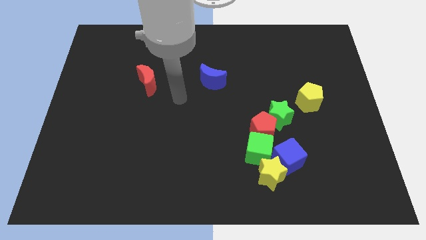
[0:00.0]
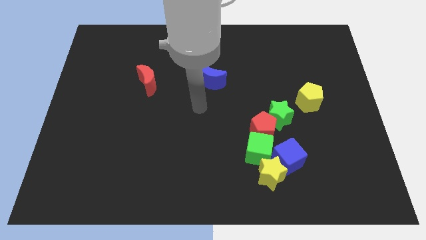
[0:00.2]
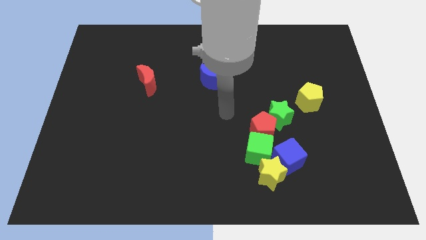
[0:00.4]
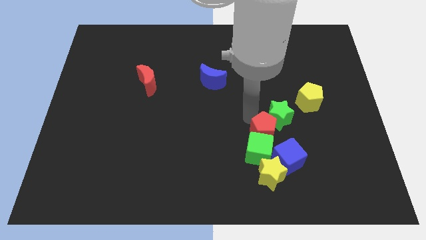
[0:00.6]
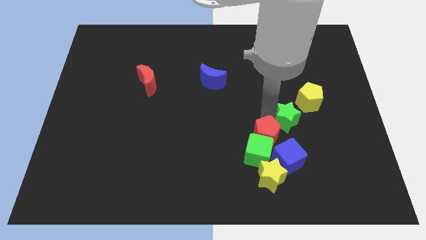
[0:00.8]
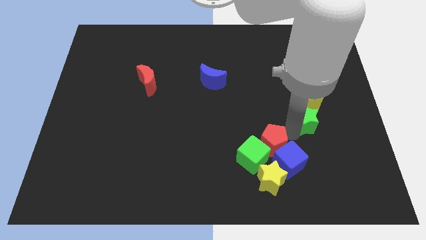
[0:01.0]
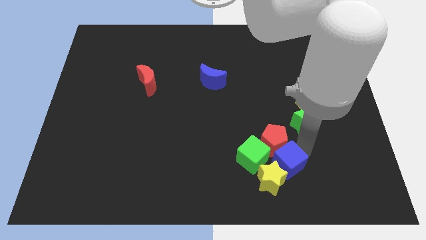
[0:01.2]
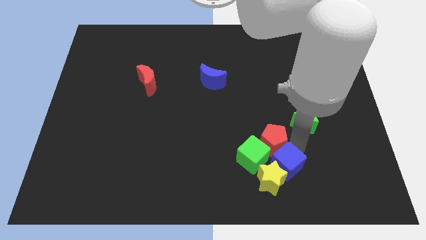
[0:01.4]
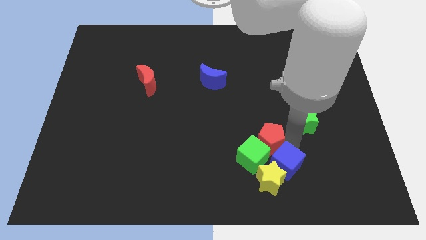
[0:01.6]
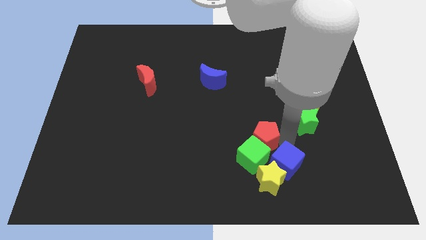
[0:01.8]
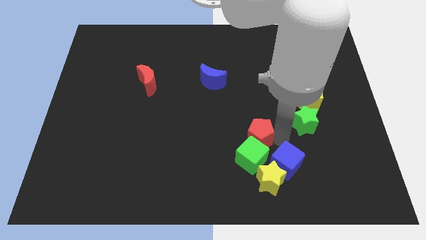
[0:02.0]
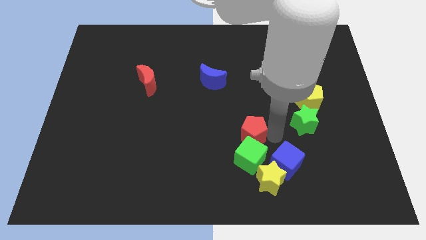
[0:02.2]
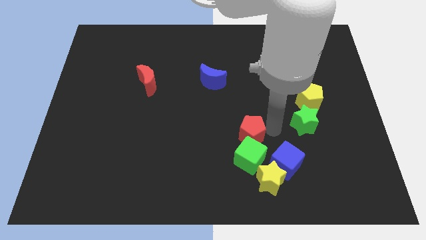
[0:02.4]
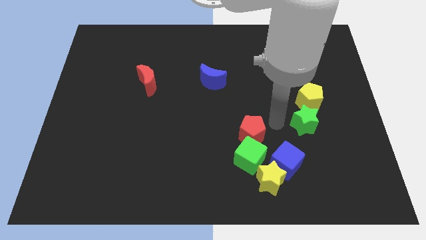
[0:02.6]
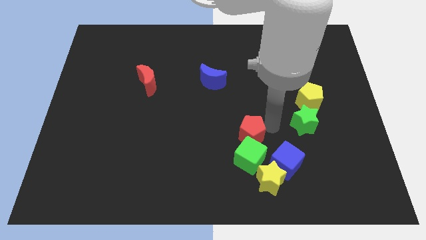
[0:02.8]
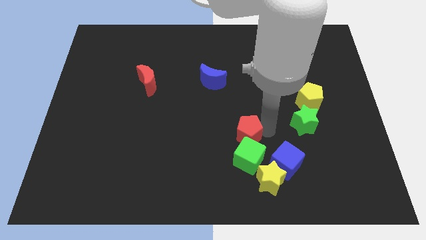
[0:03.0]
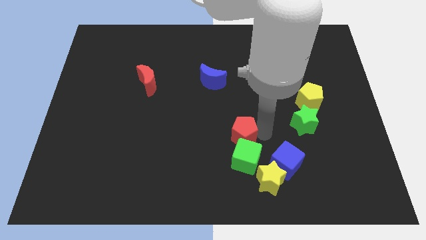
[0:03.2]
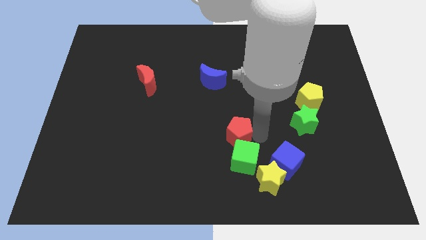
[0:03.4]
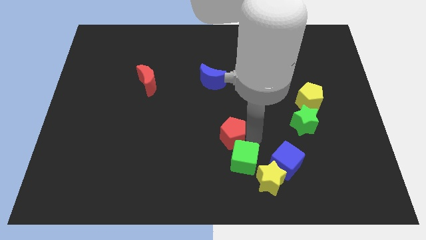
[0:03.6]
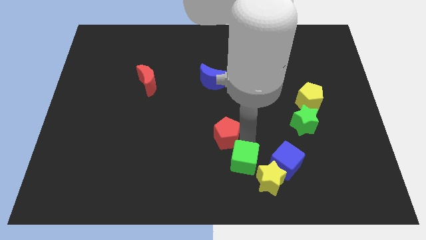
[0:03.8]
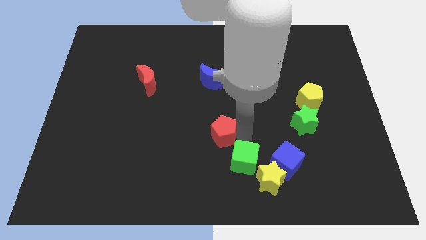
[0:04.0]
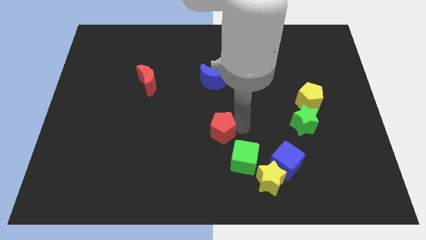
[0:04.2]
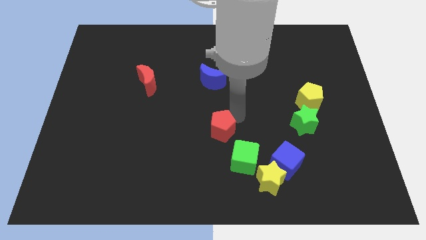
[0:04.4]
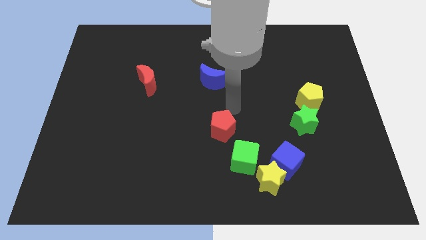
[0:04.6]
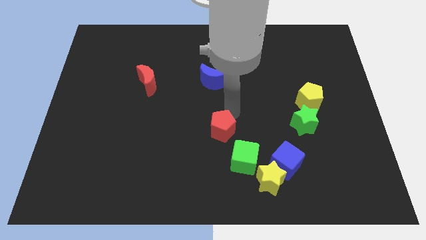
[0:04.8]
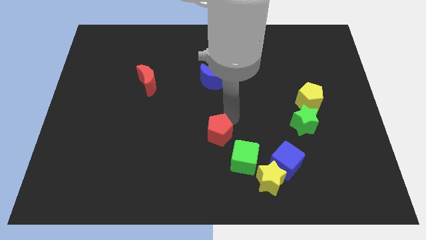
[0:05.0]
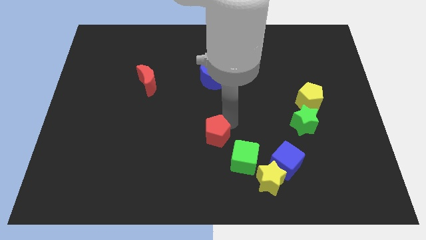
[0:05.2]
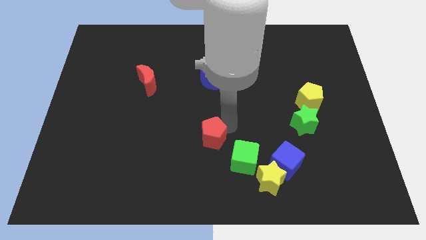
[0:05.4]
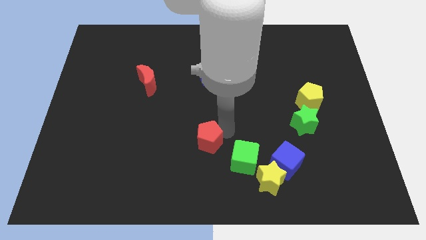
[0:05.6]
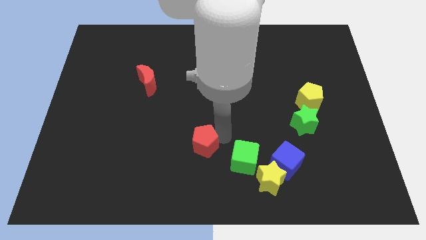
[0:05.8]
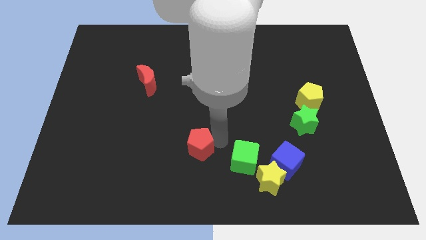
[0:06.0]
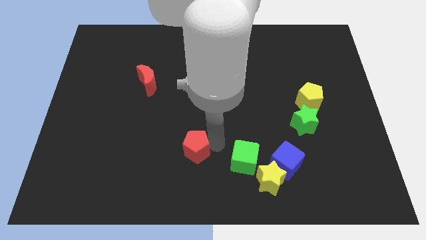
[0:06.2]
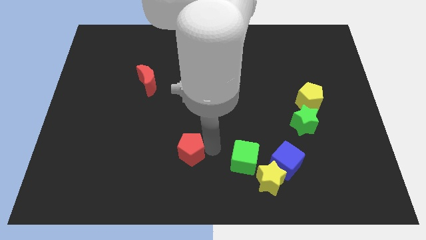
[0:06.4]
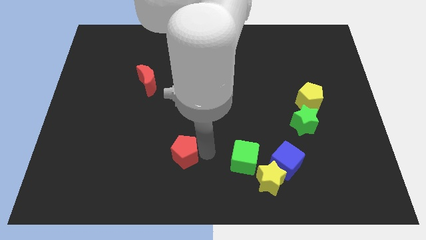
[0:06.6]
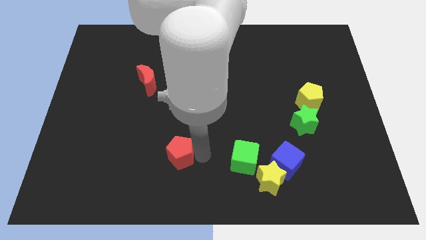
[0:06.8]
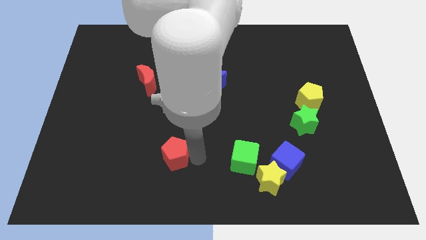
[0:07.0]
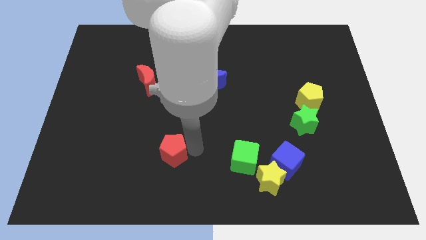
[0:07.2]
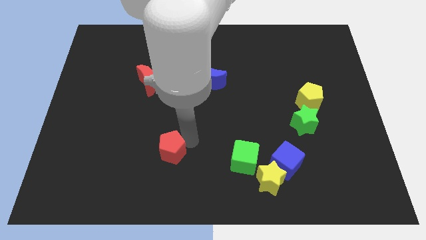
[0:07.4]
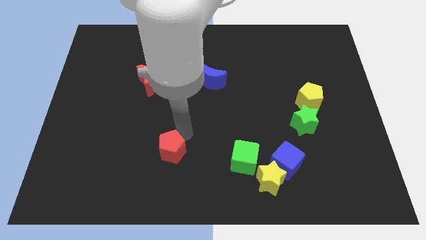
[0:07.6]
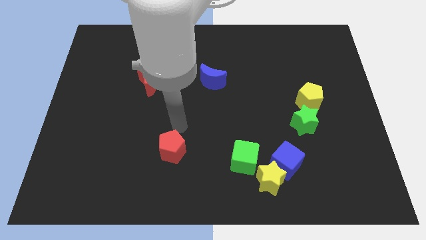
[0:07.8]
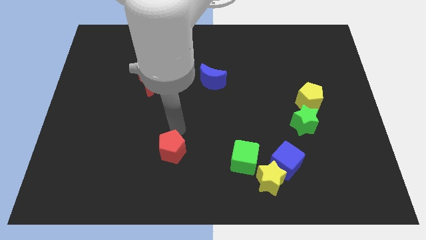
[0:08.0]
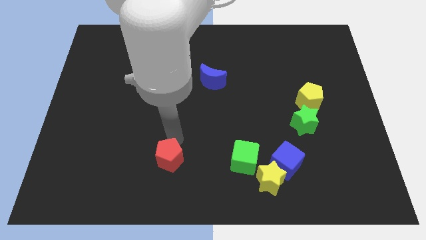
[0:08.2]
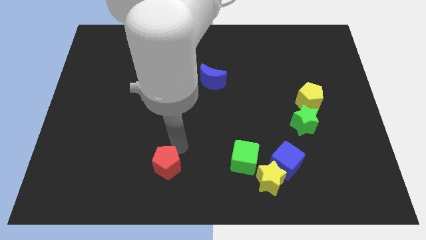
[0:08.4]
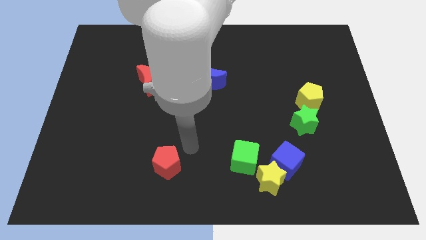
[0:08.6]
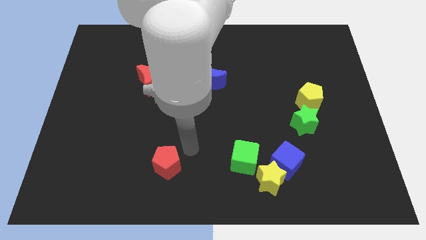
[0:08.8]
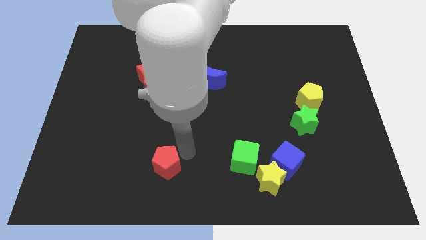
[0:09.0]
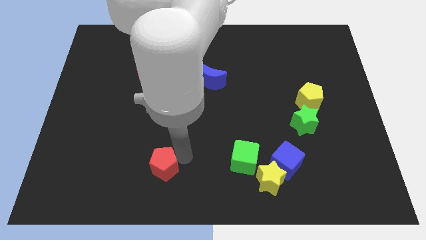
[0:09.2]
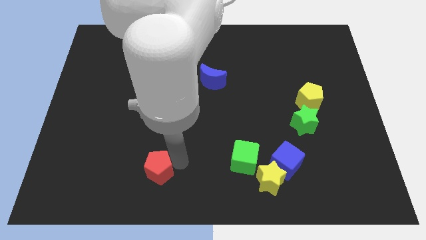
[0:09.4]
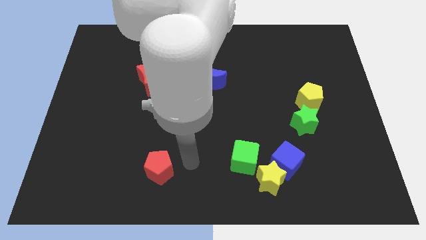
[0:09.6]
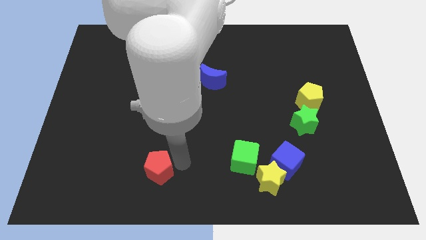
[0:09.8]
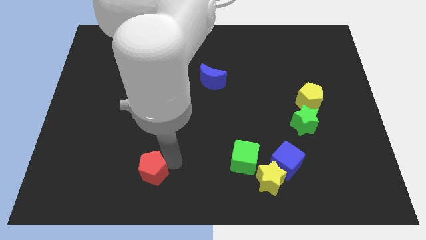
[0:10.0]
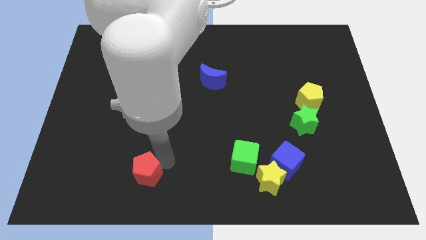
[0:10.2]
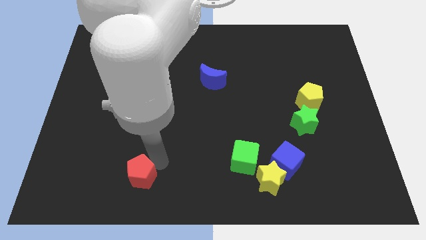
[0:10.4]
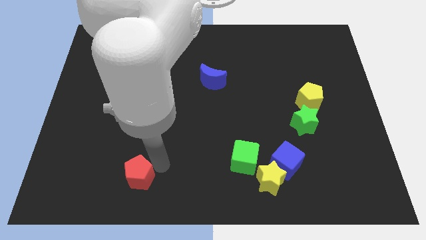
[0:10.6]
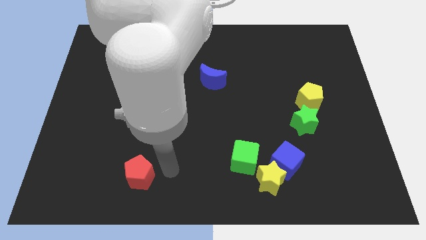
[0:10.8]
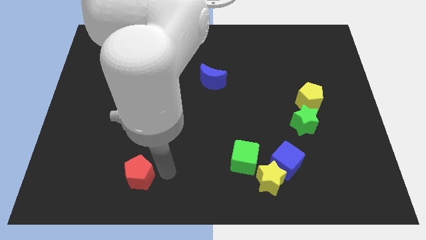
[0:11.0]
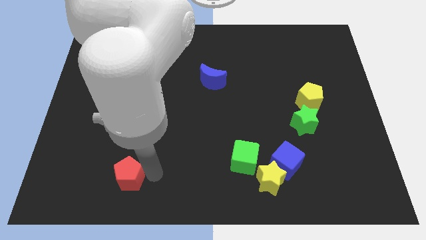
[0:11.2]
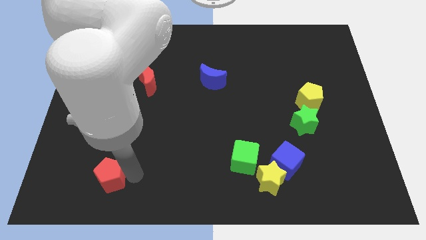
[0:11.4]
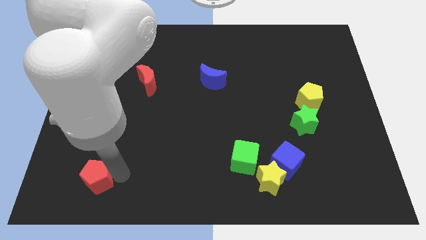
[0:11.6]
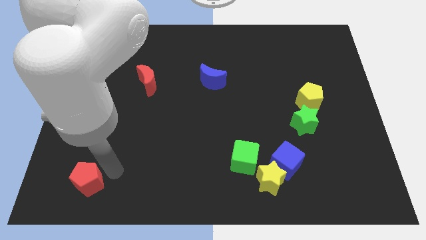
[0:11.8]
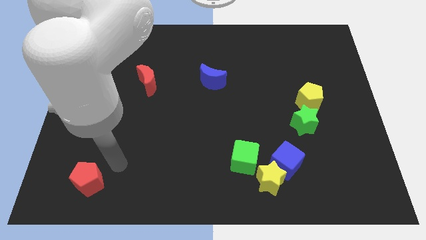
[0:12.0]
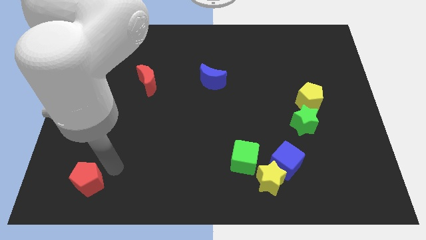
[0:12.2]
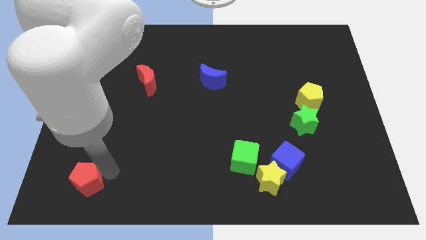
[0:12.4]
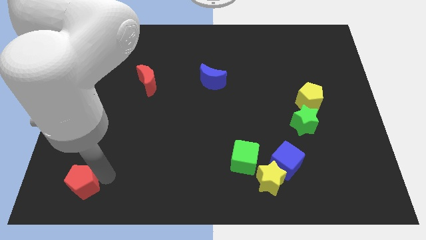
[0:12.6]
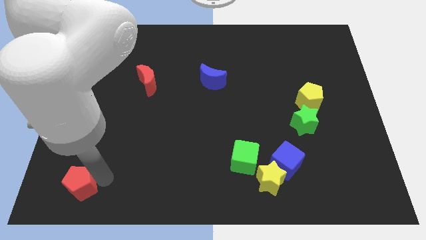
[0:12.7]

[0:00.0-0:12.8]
push the red pentagon to the bottom left corner
